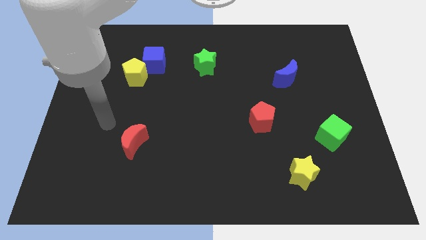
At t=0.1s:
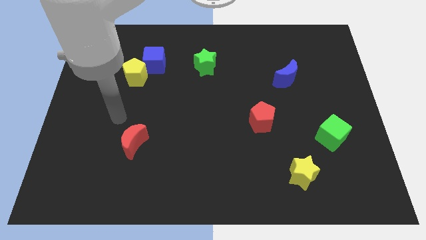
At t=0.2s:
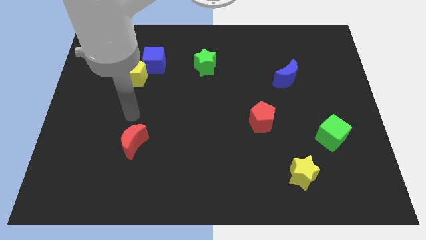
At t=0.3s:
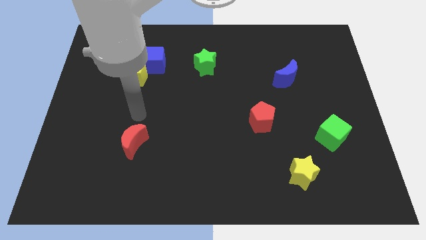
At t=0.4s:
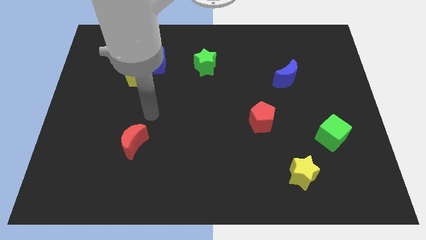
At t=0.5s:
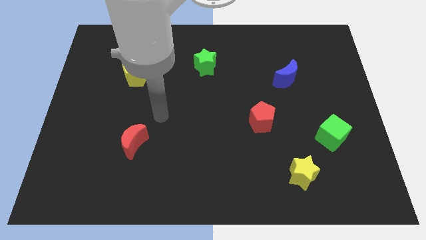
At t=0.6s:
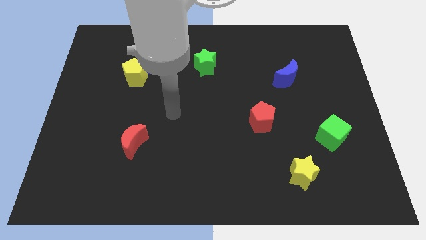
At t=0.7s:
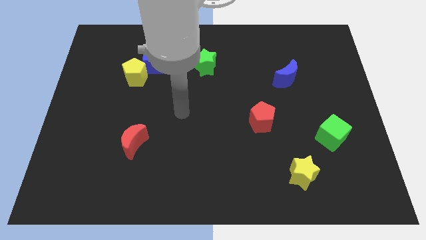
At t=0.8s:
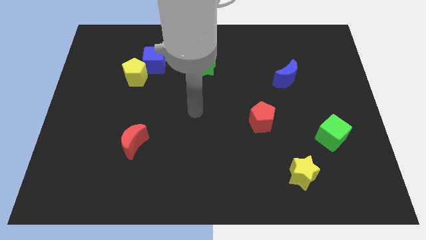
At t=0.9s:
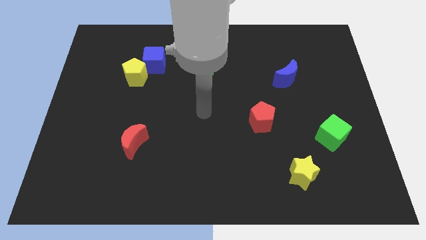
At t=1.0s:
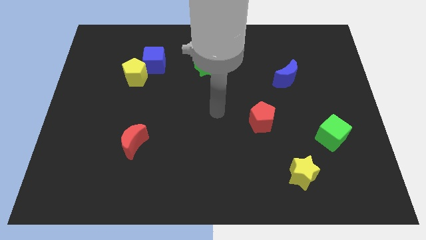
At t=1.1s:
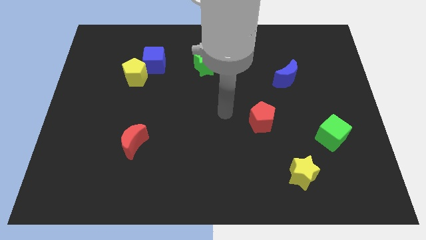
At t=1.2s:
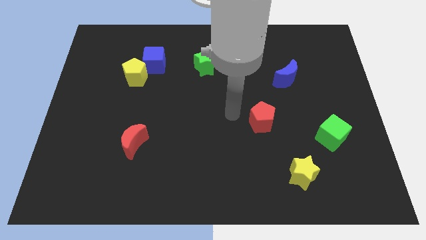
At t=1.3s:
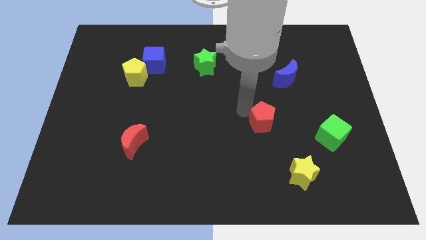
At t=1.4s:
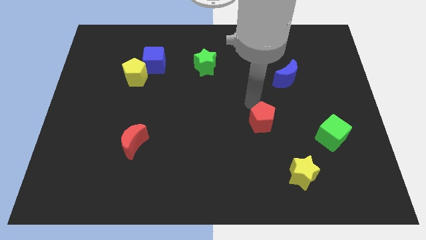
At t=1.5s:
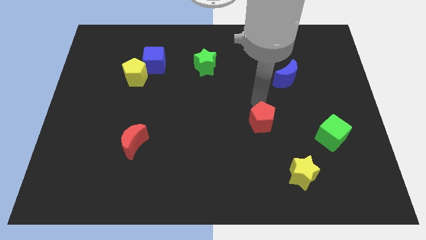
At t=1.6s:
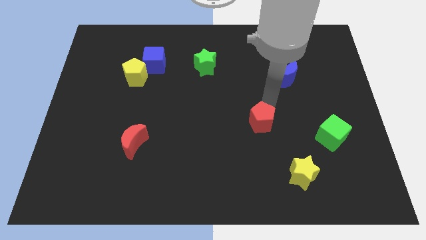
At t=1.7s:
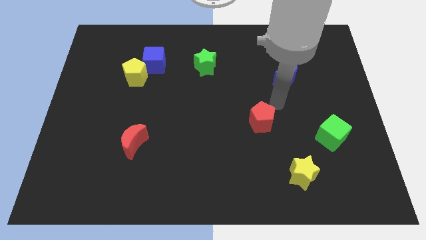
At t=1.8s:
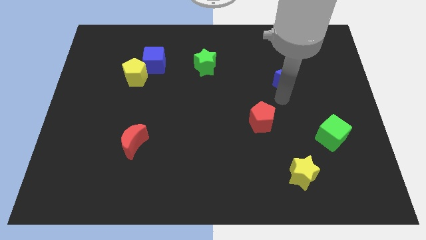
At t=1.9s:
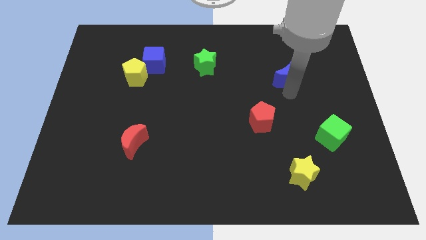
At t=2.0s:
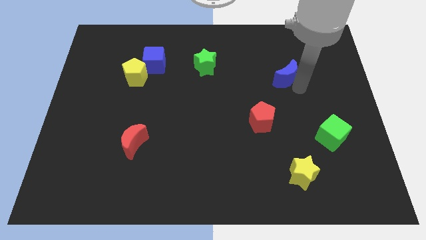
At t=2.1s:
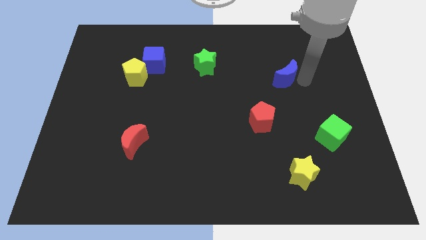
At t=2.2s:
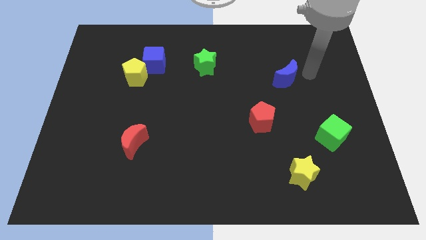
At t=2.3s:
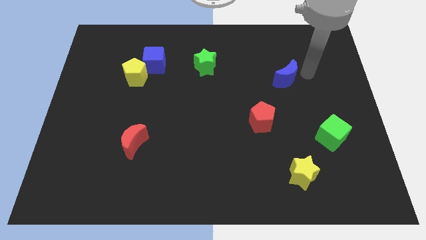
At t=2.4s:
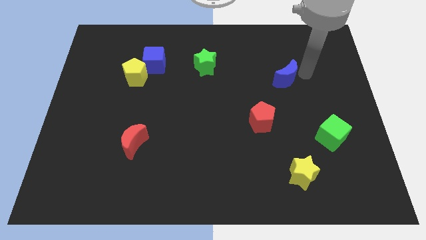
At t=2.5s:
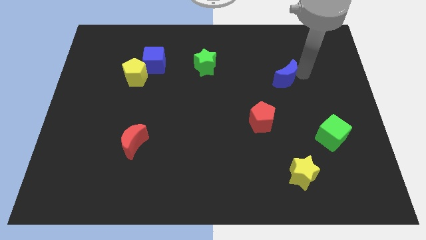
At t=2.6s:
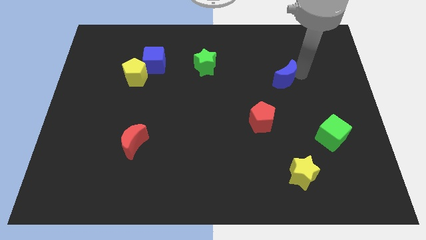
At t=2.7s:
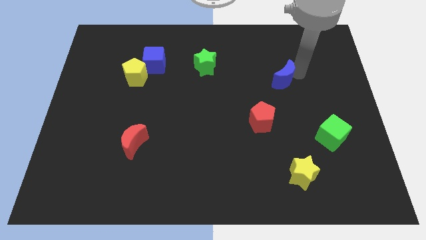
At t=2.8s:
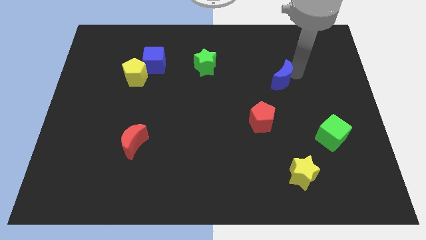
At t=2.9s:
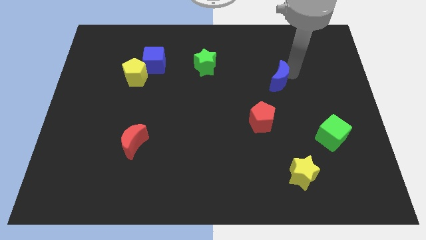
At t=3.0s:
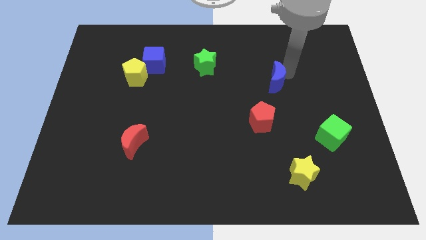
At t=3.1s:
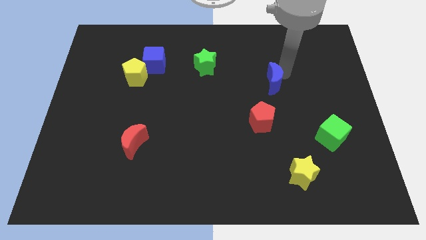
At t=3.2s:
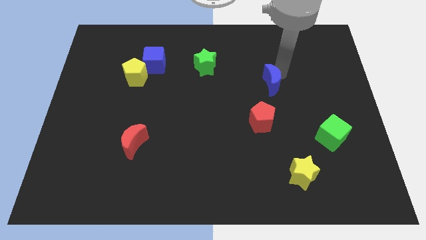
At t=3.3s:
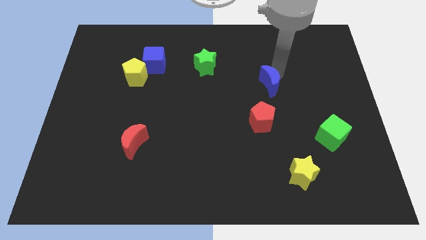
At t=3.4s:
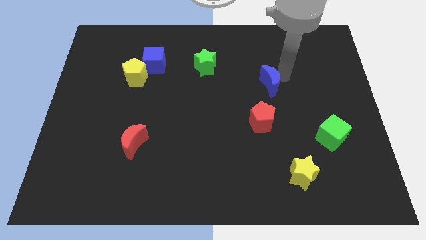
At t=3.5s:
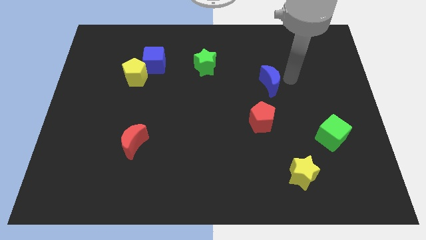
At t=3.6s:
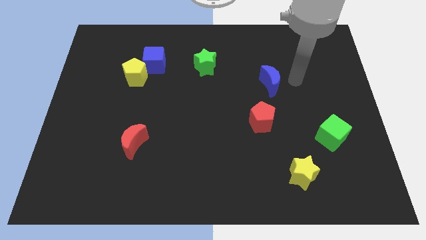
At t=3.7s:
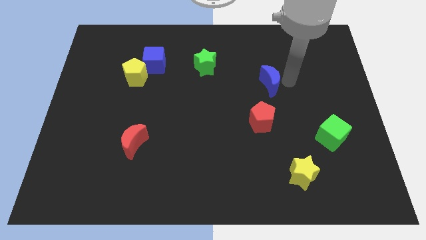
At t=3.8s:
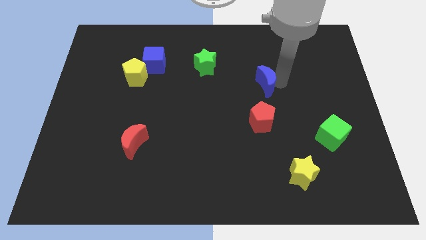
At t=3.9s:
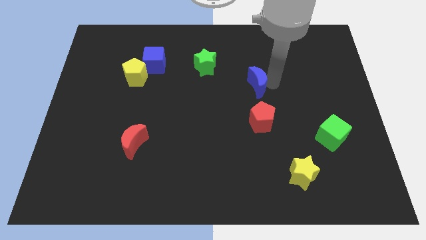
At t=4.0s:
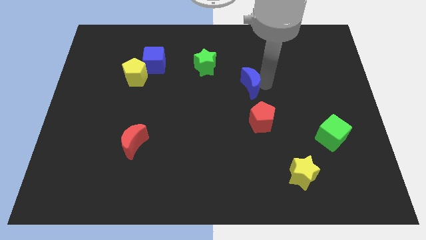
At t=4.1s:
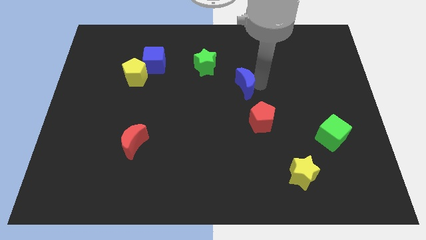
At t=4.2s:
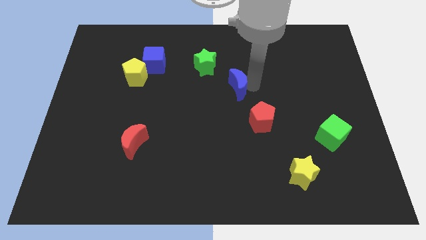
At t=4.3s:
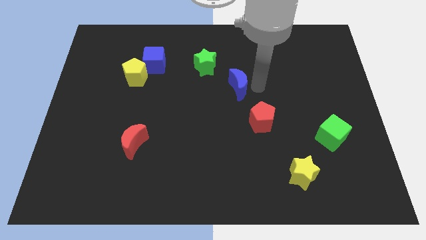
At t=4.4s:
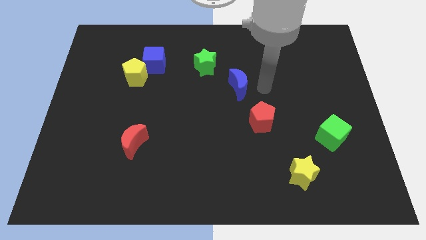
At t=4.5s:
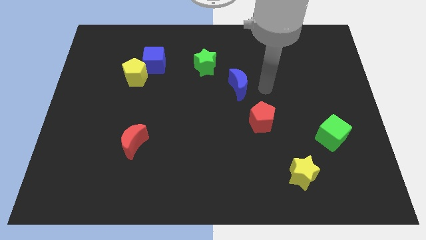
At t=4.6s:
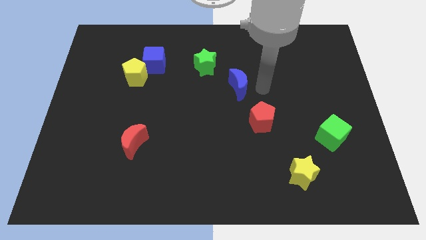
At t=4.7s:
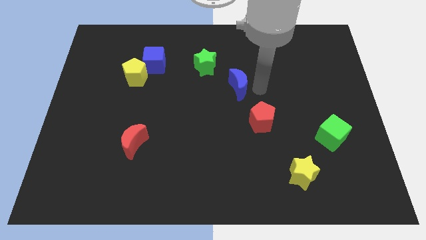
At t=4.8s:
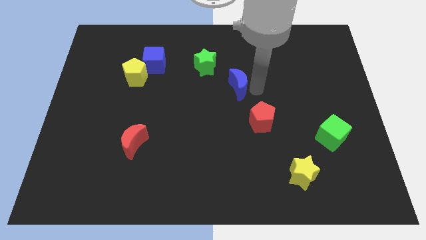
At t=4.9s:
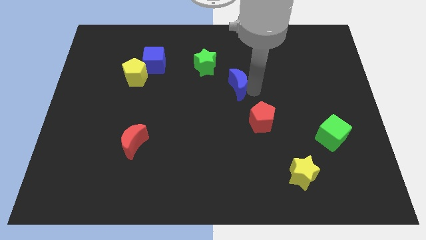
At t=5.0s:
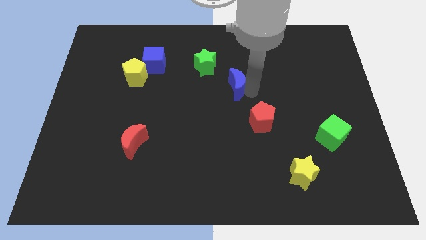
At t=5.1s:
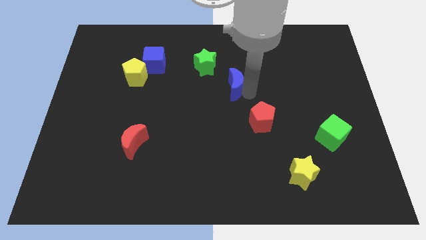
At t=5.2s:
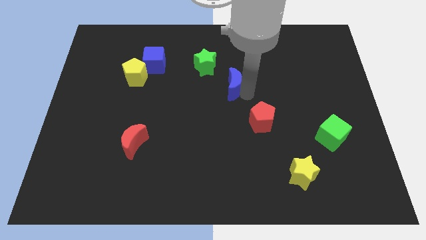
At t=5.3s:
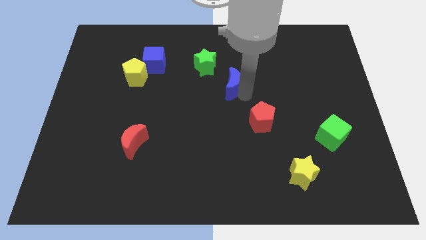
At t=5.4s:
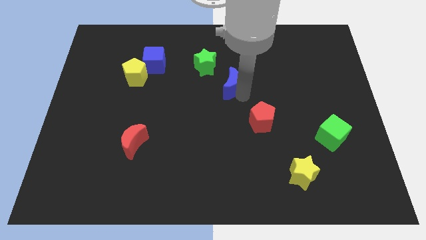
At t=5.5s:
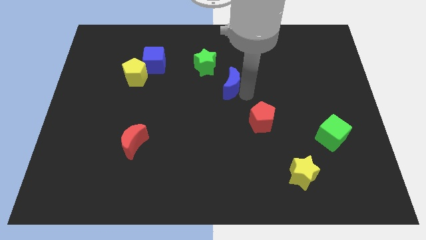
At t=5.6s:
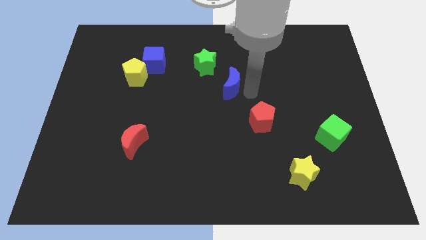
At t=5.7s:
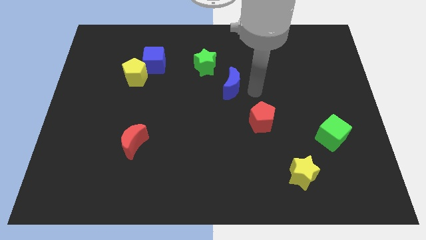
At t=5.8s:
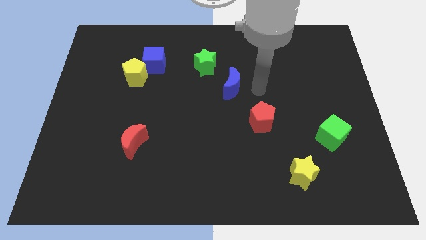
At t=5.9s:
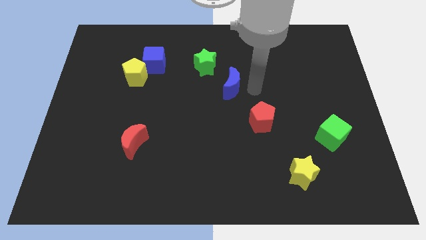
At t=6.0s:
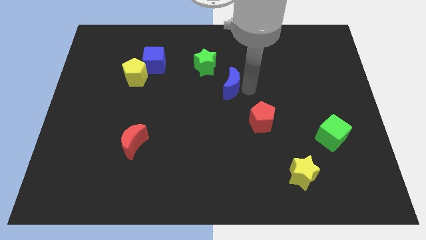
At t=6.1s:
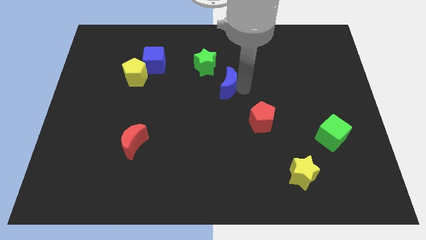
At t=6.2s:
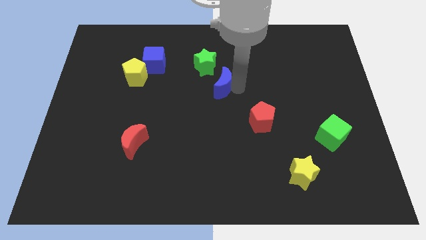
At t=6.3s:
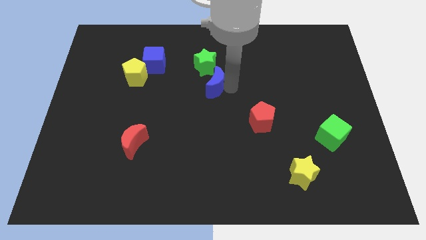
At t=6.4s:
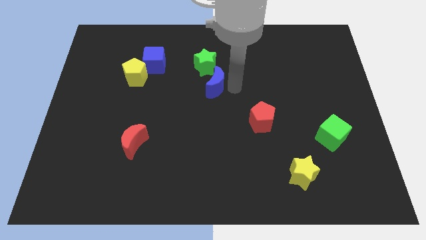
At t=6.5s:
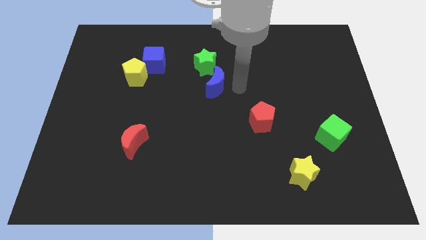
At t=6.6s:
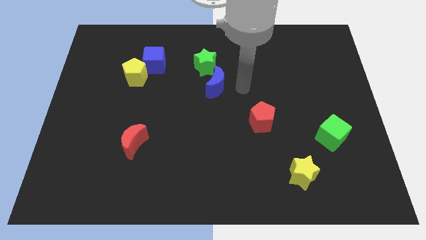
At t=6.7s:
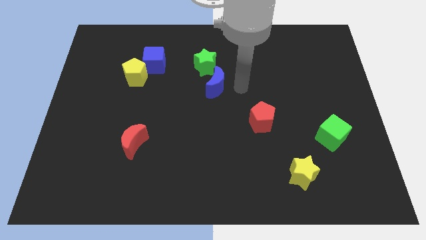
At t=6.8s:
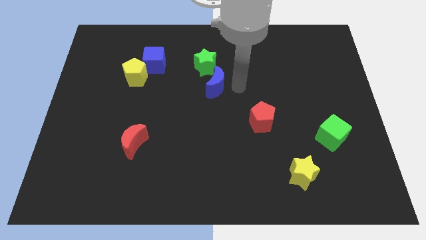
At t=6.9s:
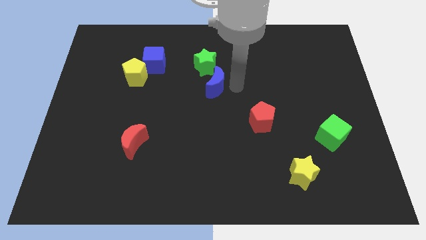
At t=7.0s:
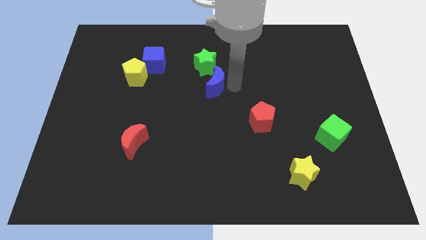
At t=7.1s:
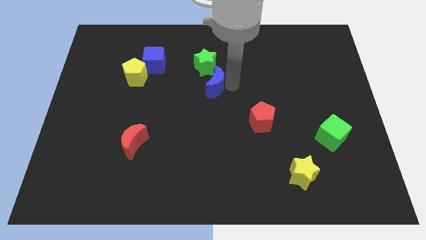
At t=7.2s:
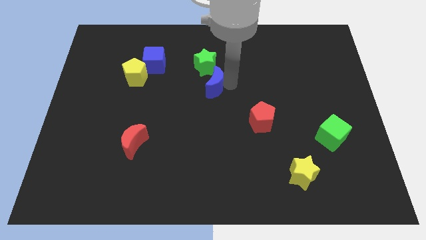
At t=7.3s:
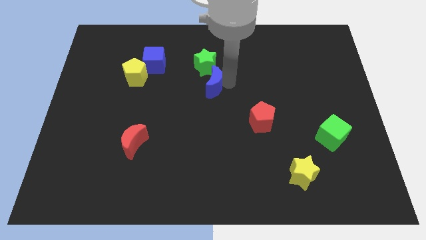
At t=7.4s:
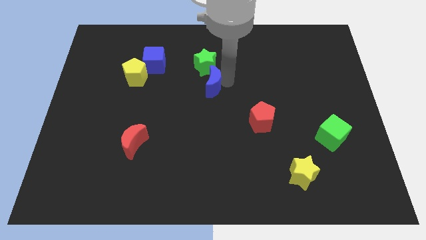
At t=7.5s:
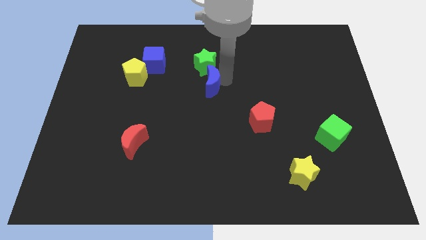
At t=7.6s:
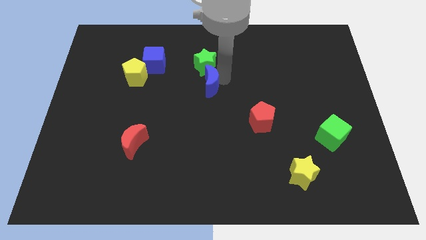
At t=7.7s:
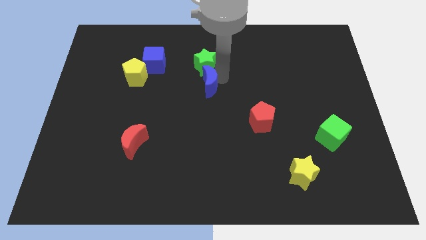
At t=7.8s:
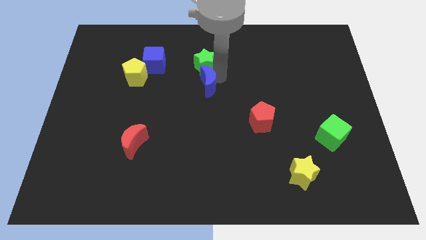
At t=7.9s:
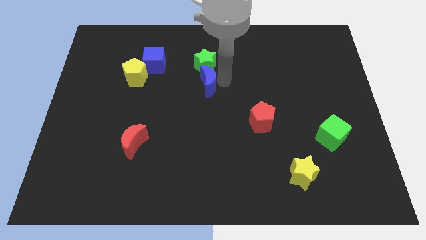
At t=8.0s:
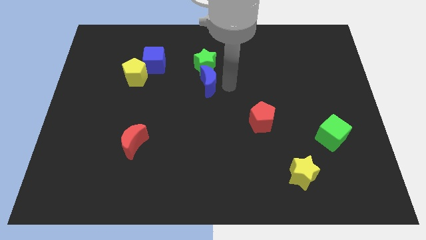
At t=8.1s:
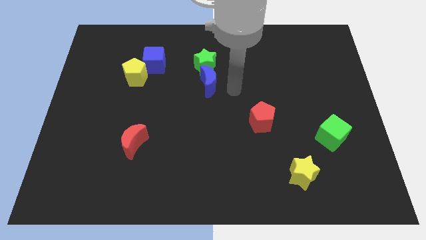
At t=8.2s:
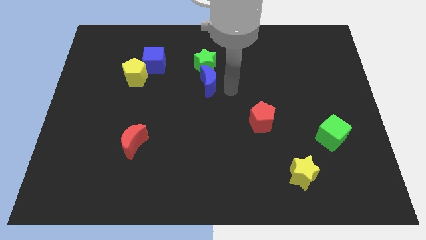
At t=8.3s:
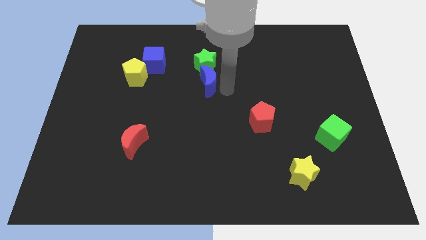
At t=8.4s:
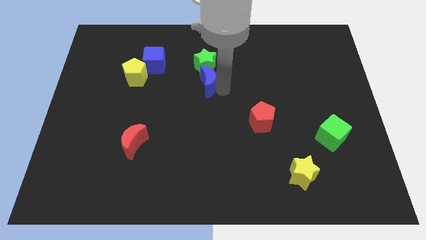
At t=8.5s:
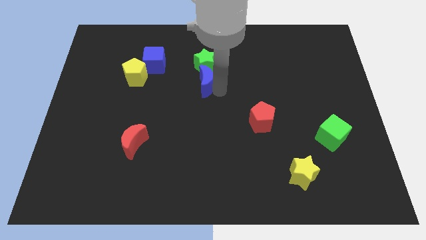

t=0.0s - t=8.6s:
slide the blue moon left
